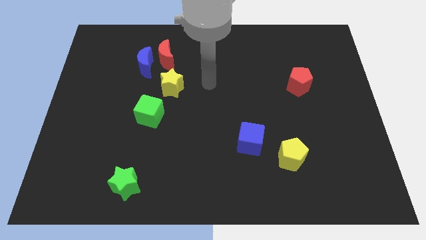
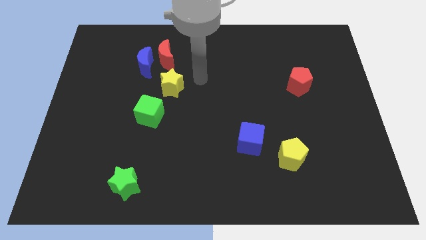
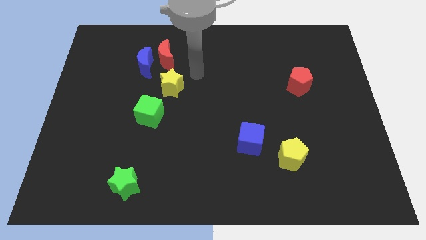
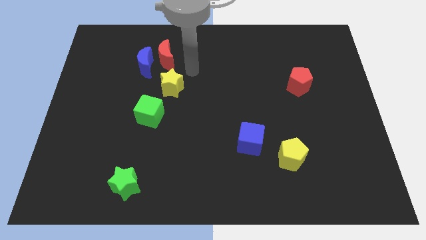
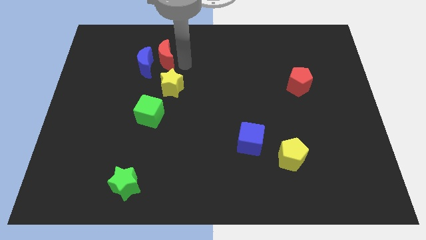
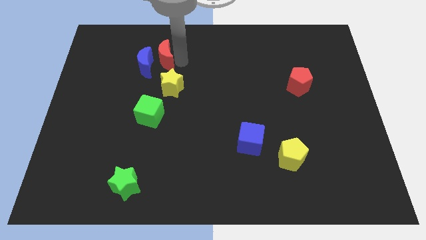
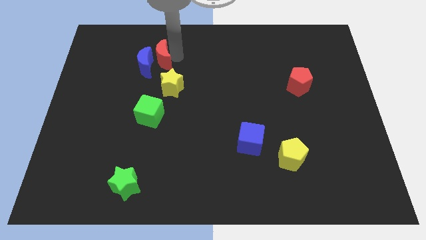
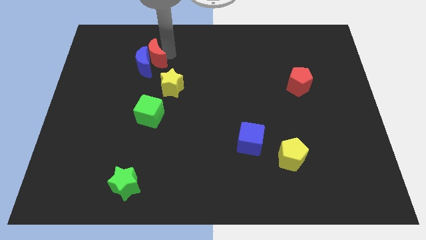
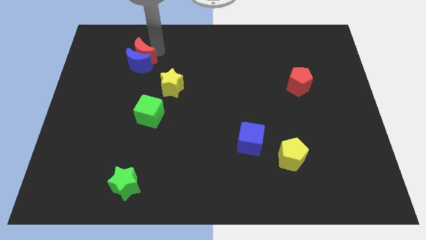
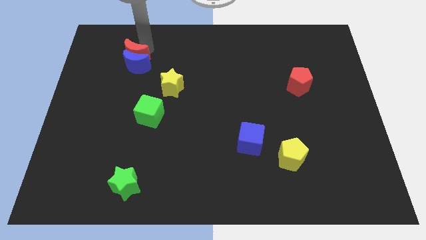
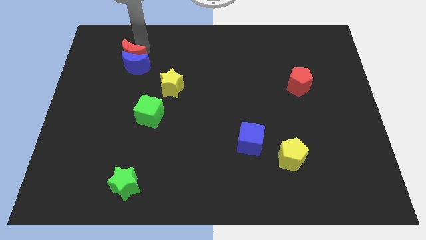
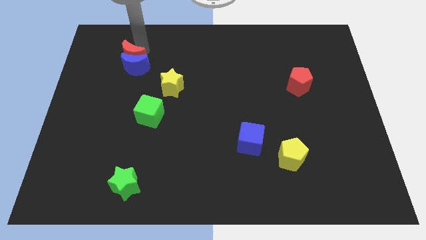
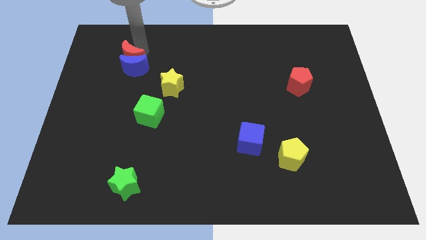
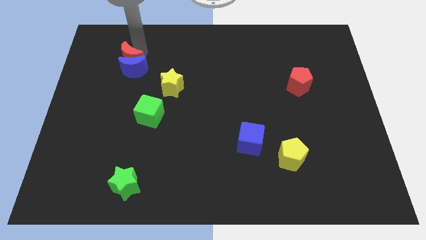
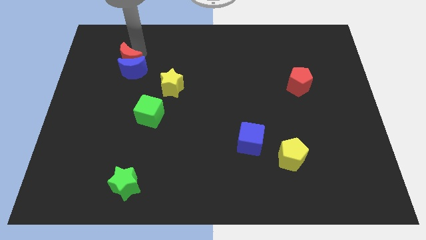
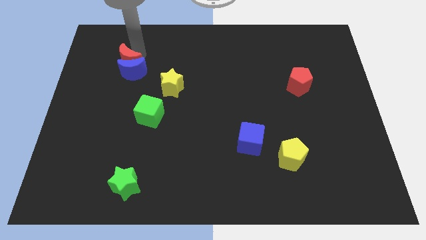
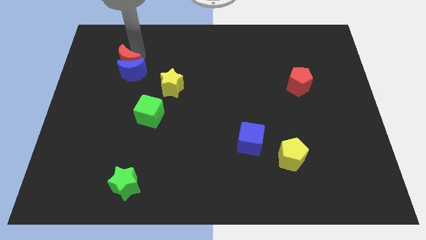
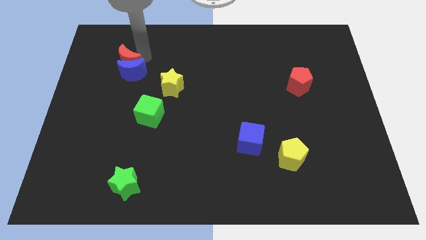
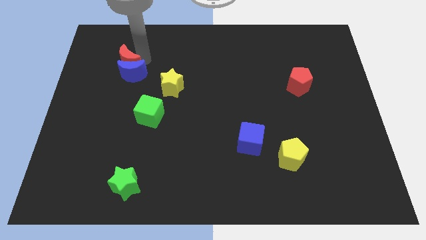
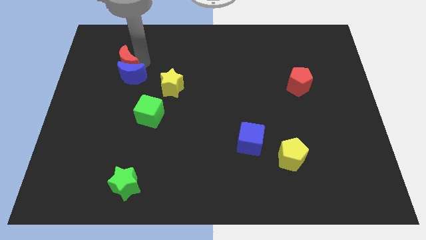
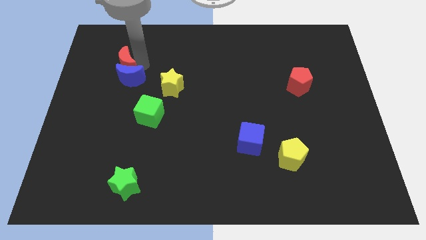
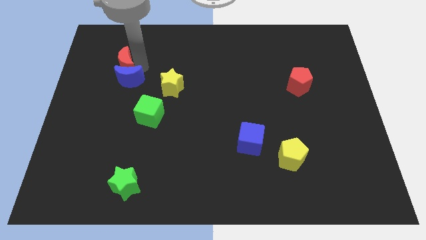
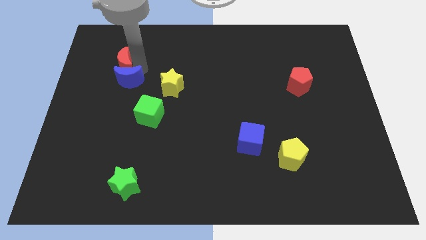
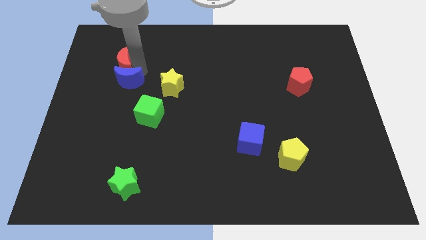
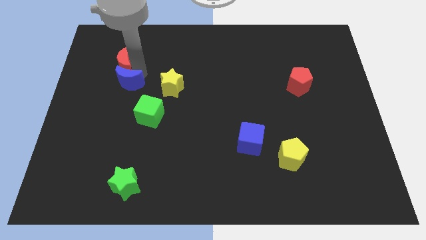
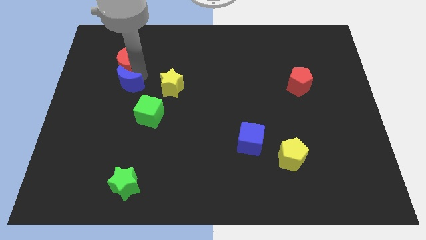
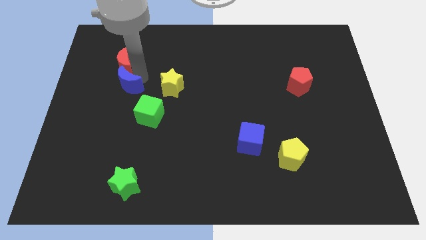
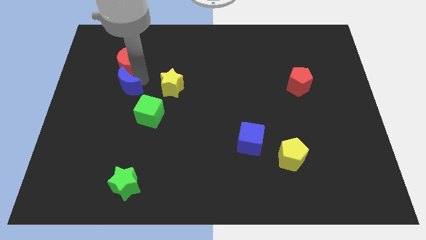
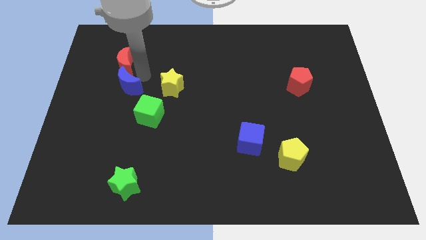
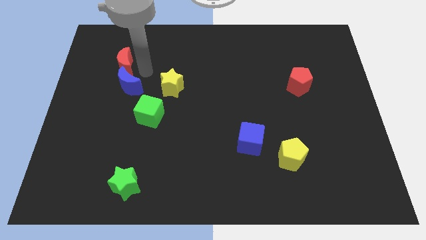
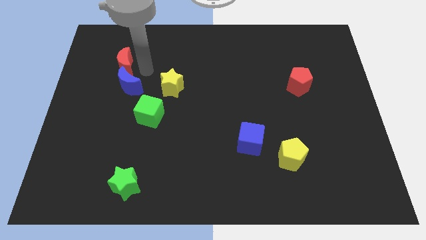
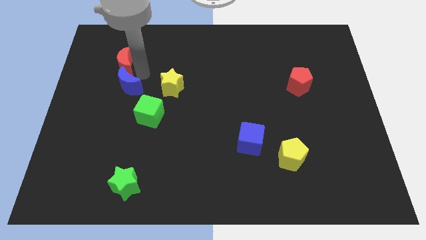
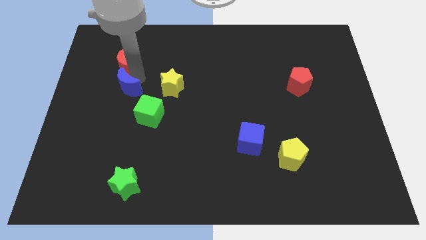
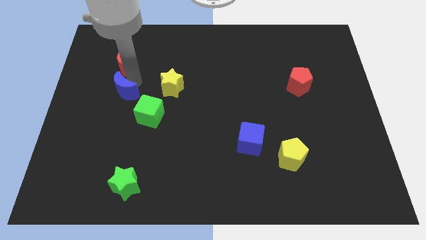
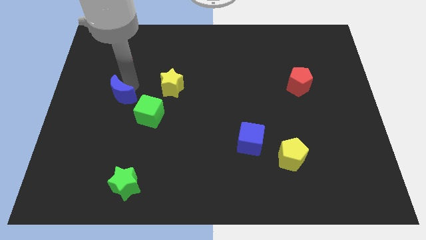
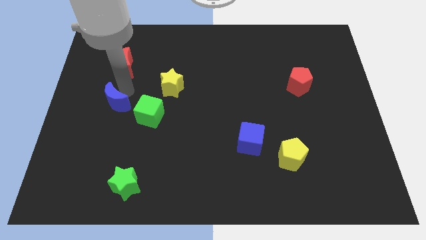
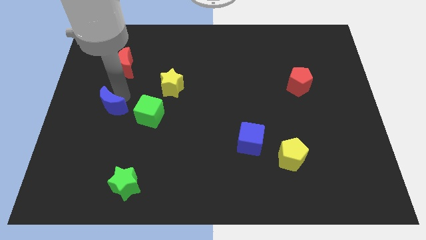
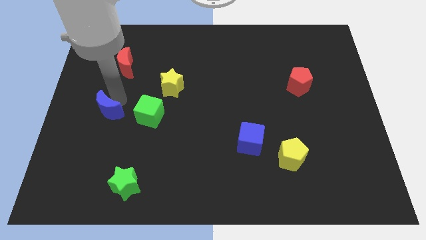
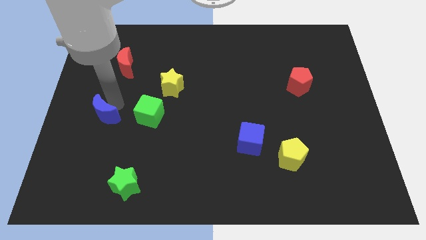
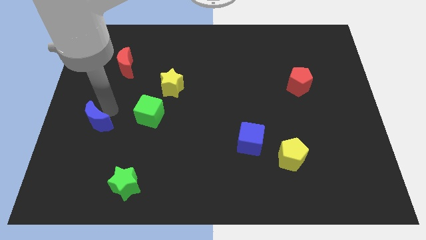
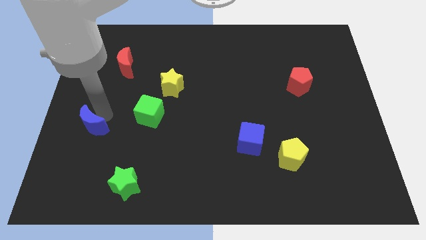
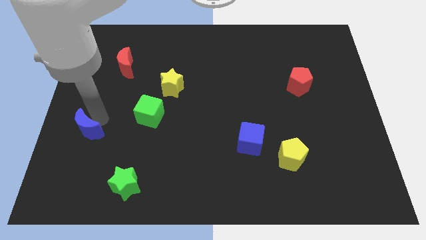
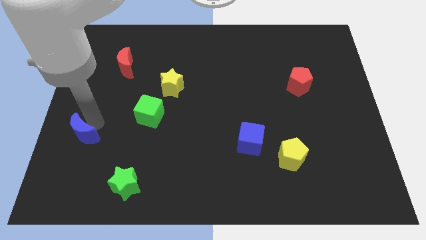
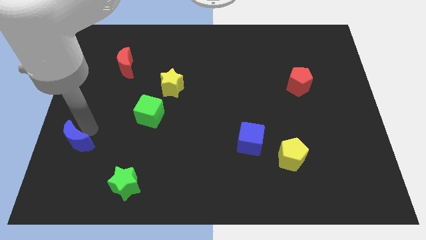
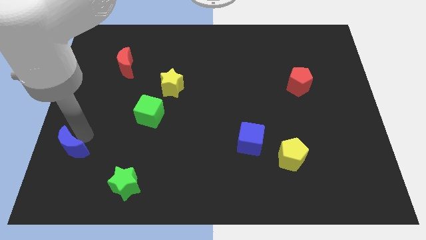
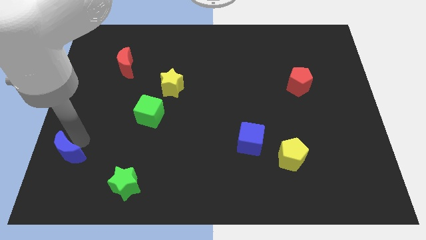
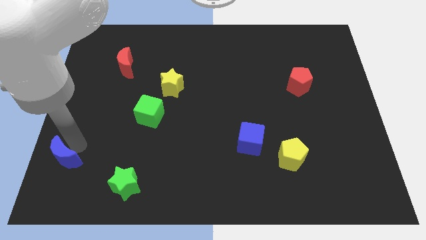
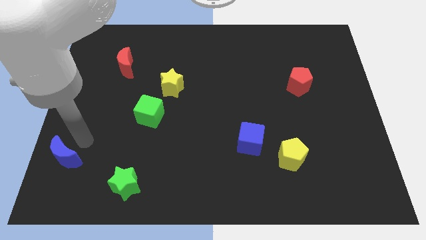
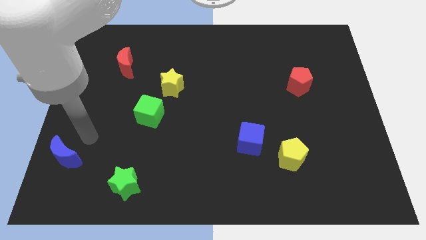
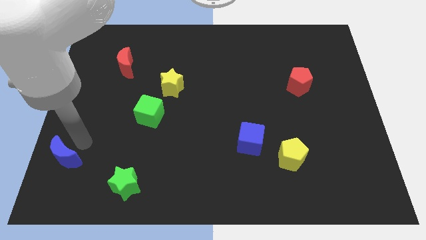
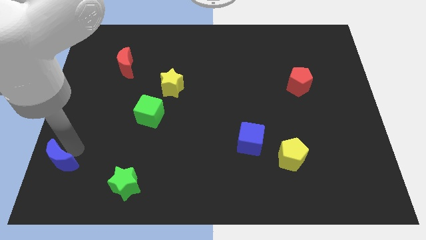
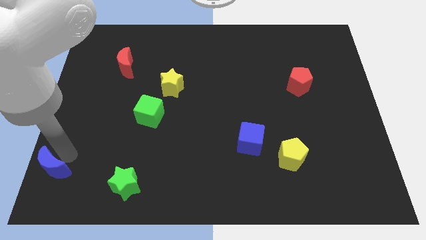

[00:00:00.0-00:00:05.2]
put the blue moon to the bottom left of the board

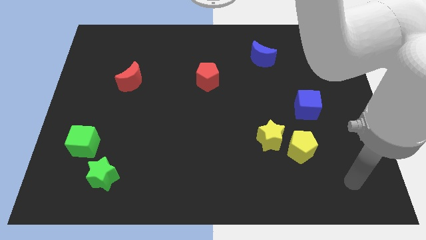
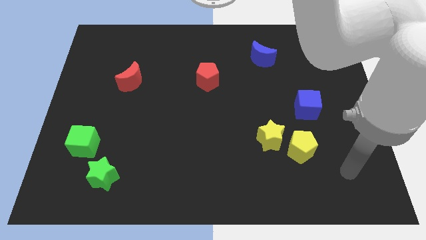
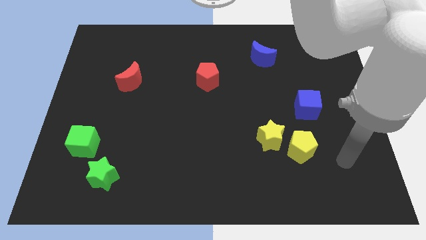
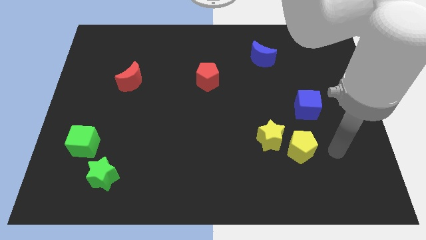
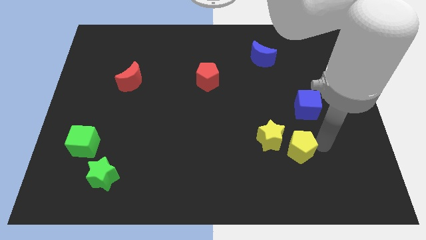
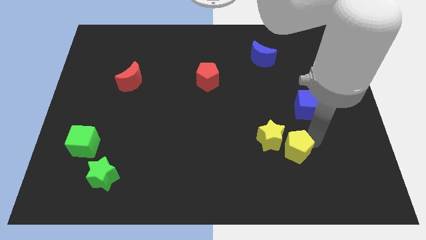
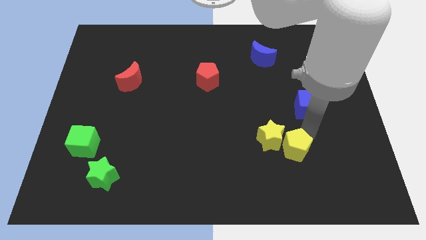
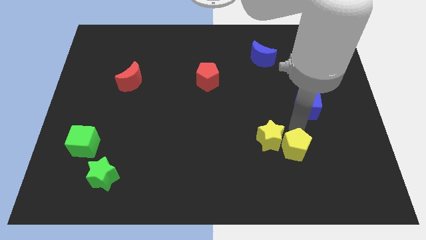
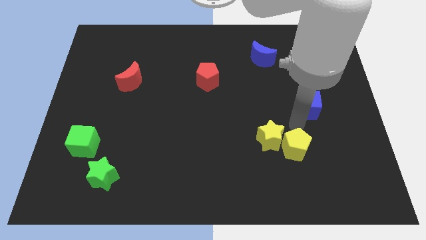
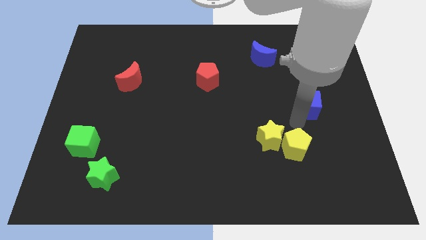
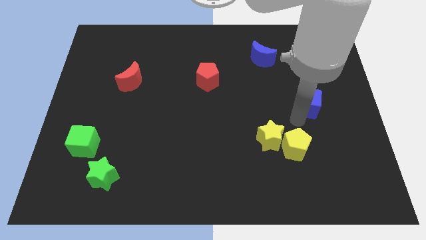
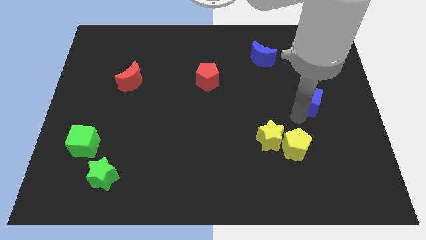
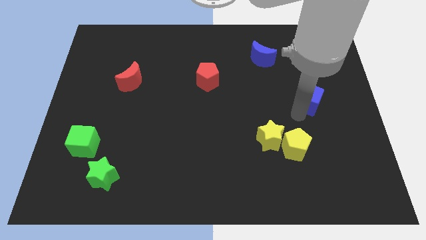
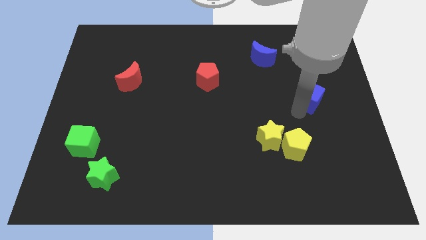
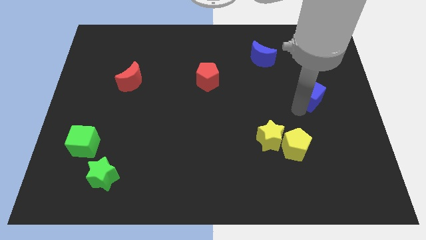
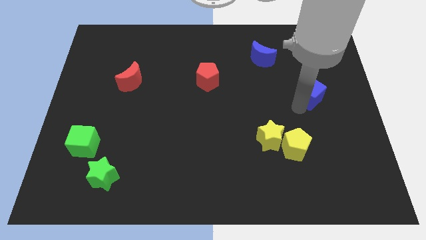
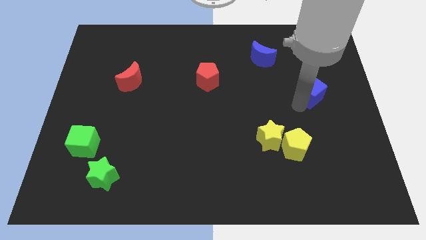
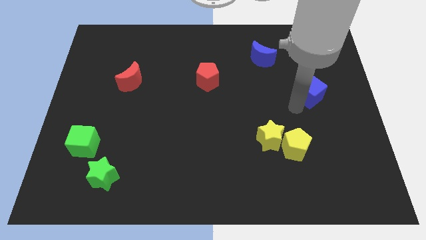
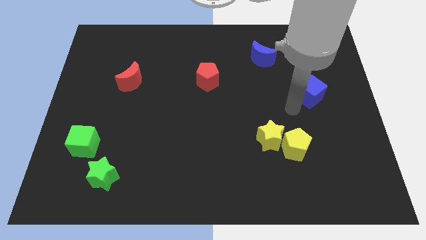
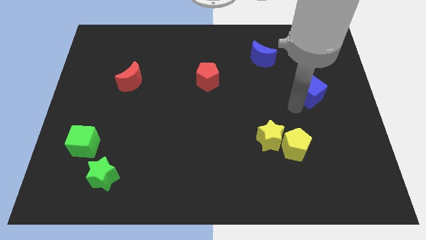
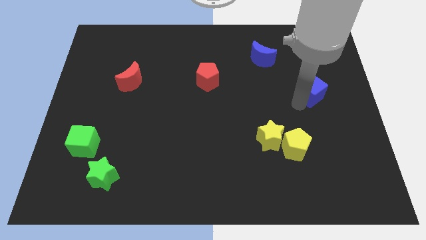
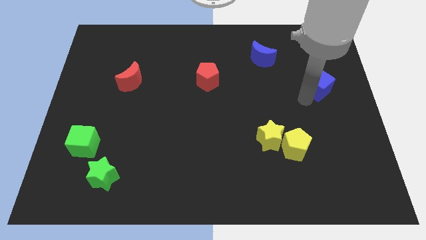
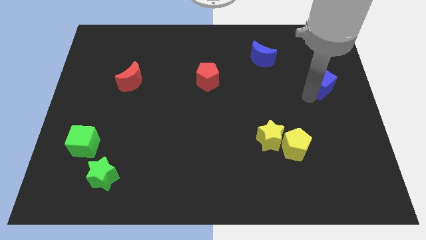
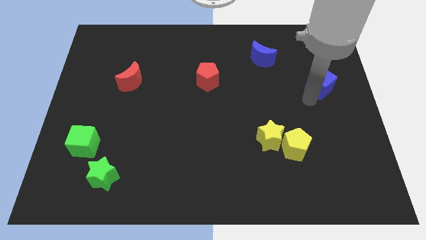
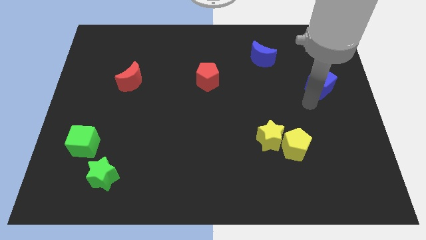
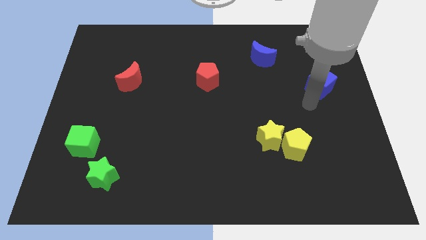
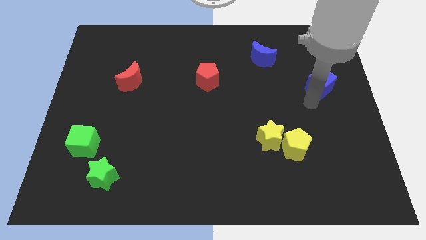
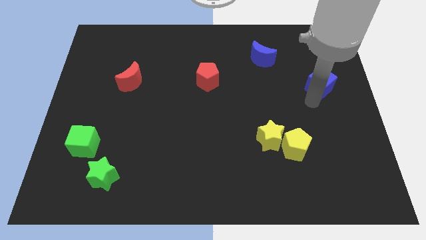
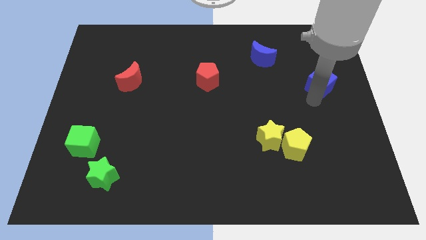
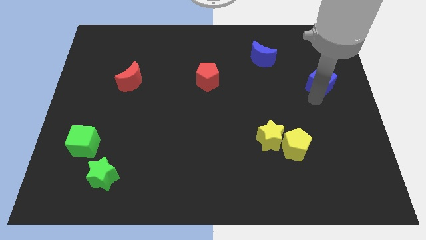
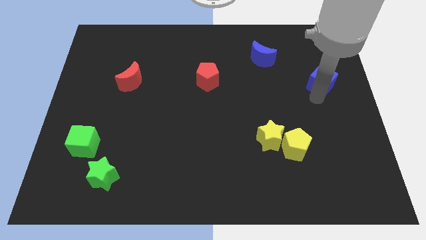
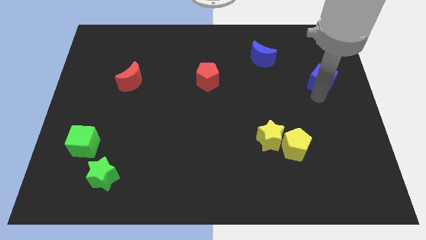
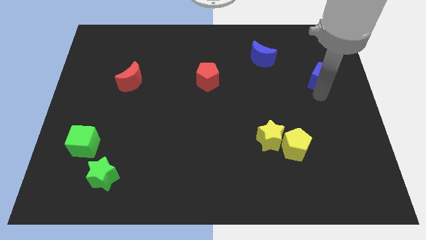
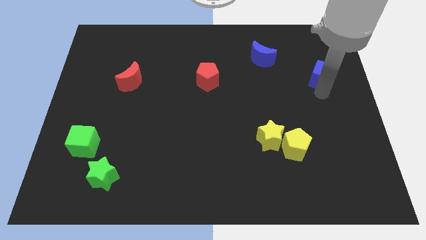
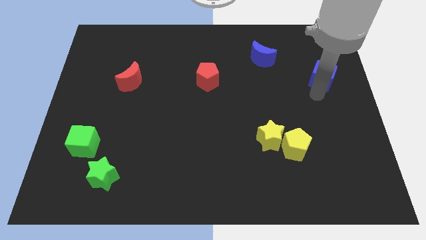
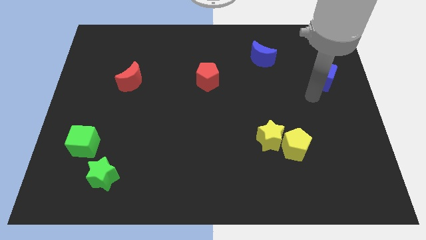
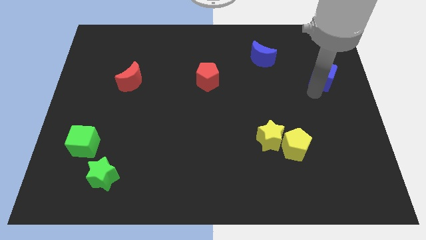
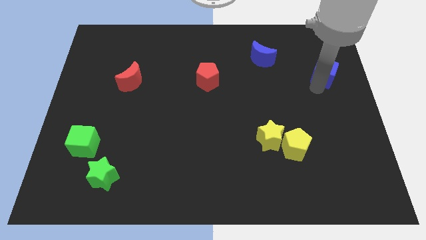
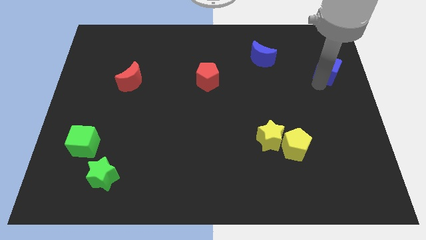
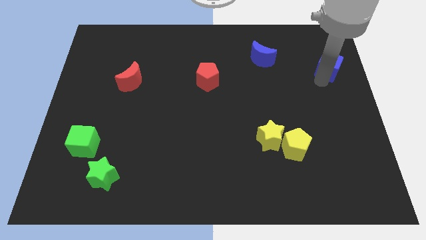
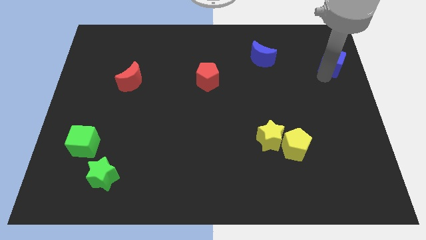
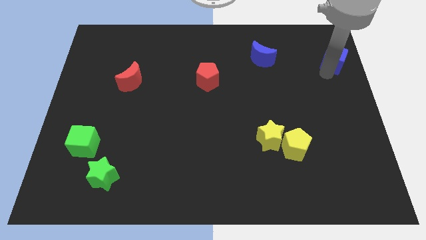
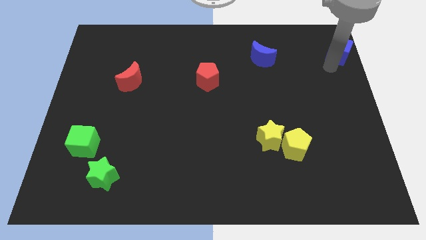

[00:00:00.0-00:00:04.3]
move the blue cube to the top right of the board
